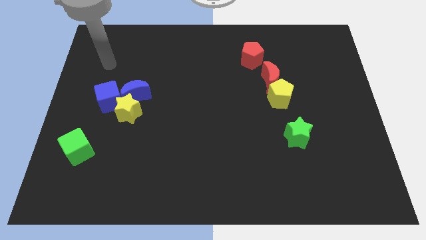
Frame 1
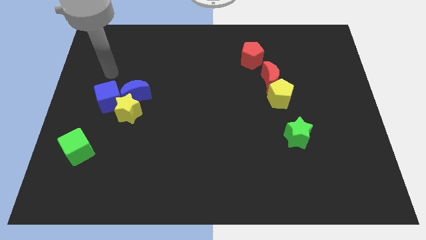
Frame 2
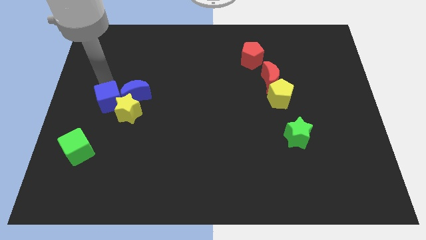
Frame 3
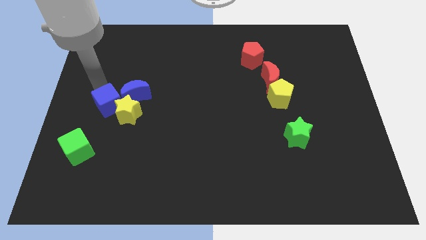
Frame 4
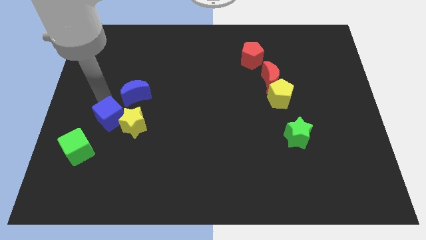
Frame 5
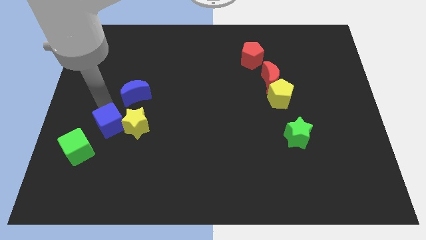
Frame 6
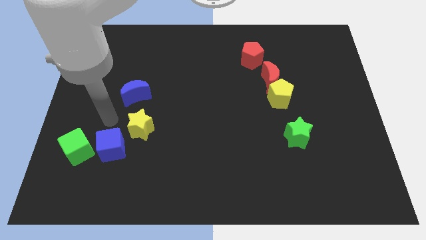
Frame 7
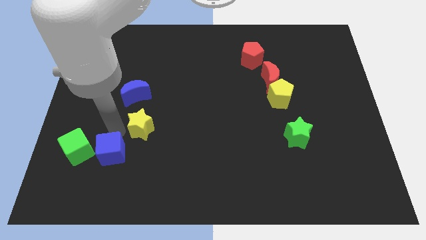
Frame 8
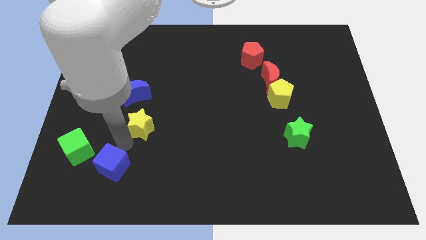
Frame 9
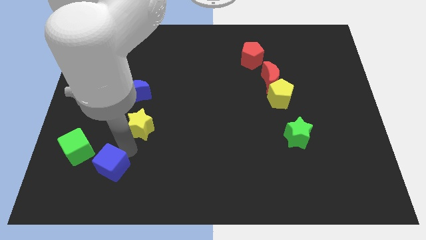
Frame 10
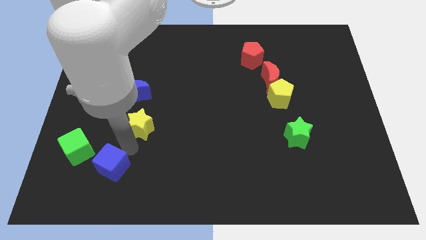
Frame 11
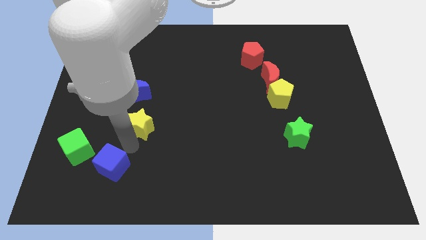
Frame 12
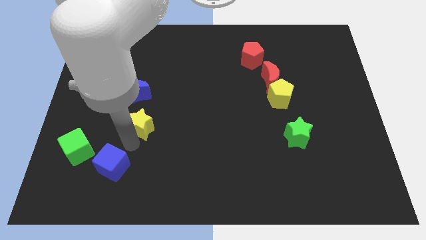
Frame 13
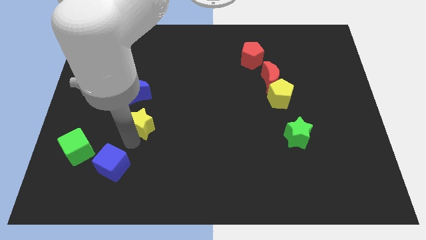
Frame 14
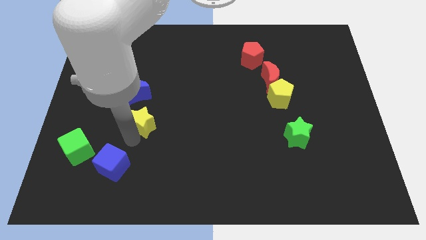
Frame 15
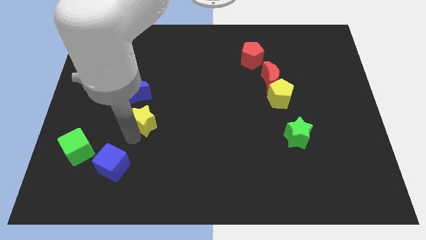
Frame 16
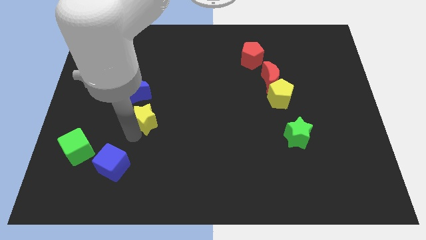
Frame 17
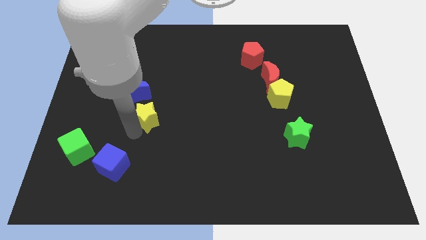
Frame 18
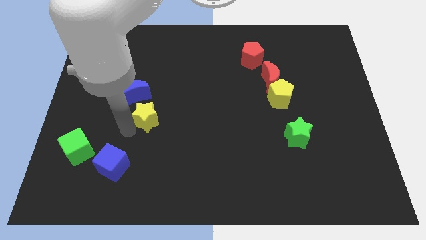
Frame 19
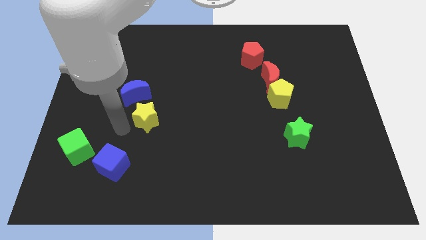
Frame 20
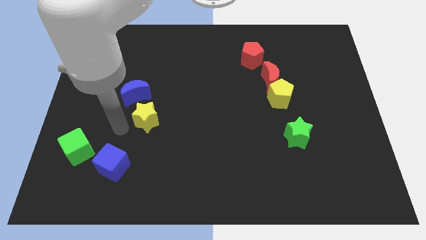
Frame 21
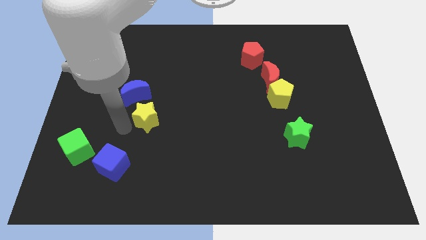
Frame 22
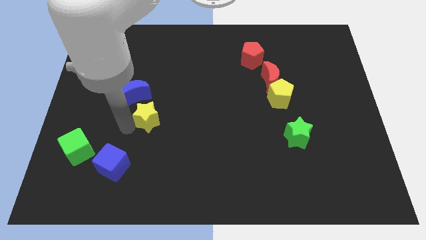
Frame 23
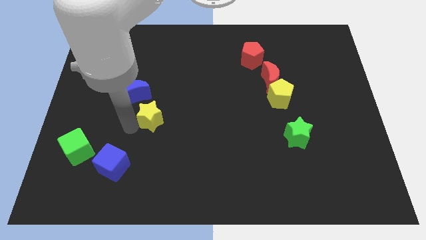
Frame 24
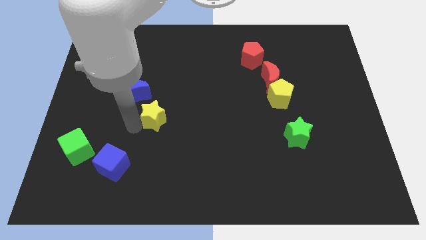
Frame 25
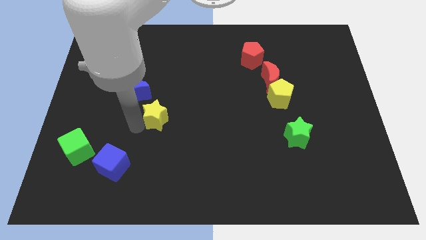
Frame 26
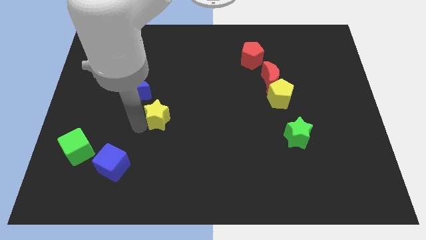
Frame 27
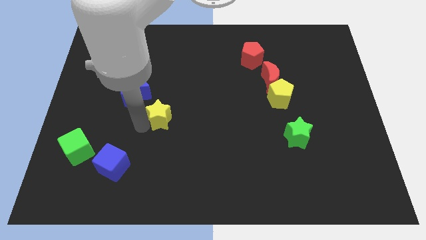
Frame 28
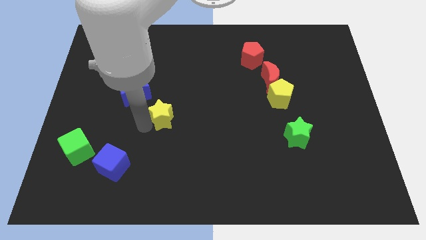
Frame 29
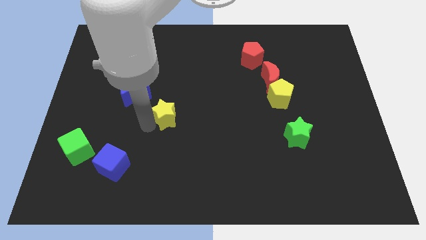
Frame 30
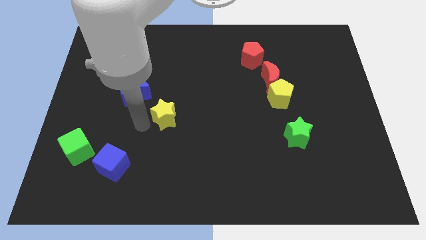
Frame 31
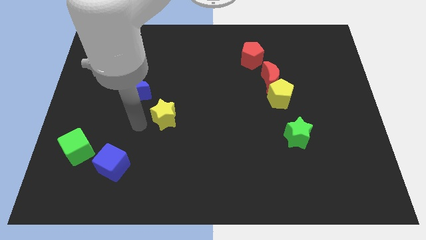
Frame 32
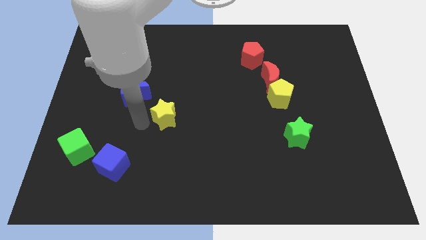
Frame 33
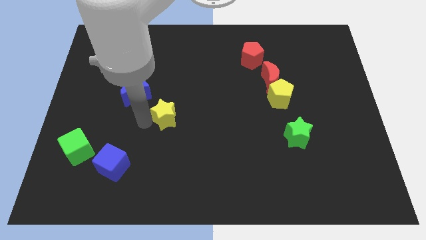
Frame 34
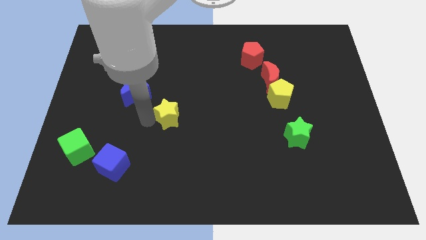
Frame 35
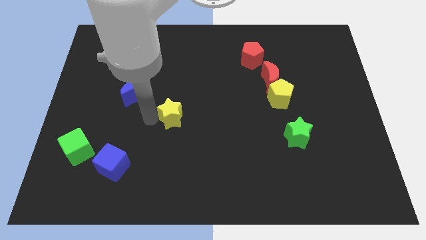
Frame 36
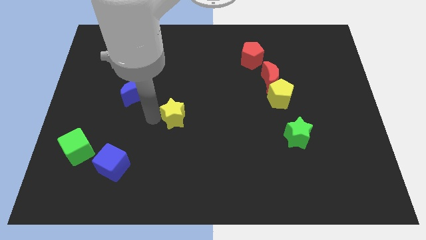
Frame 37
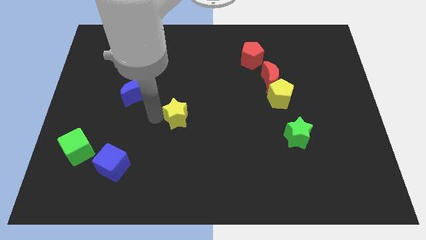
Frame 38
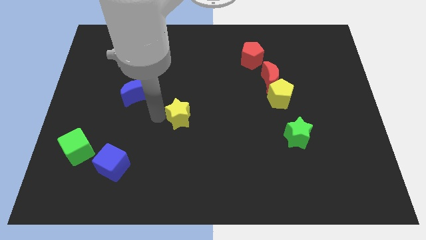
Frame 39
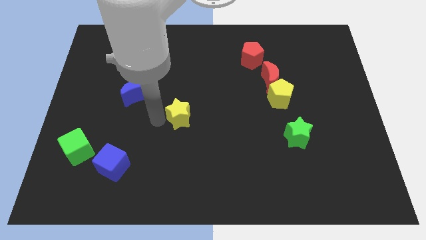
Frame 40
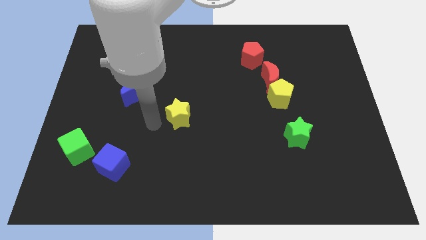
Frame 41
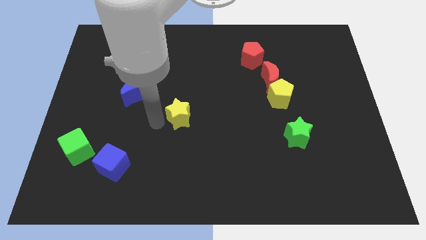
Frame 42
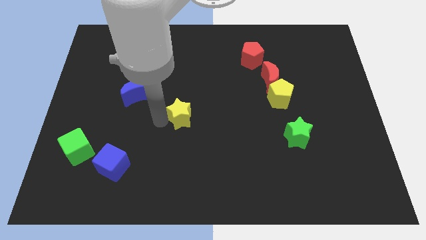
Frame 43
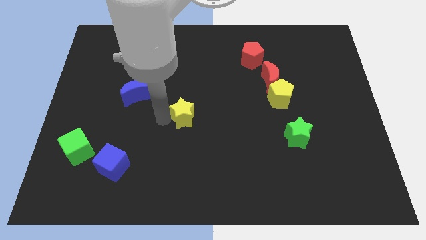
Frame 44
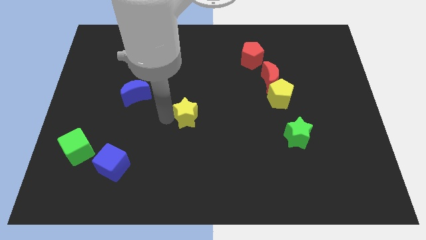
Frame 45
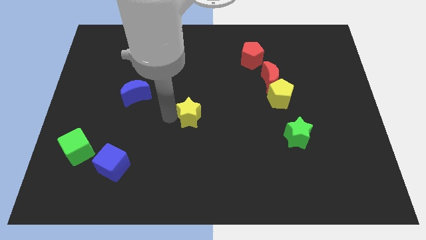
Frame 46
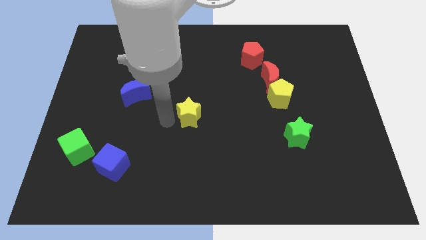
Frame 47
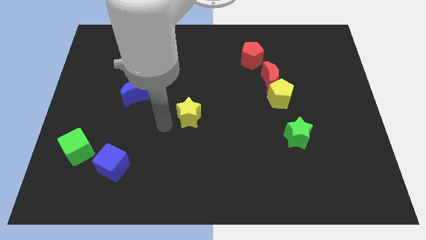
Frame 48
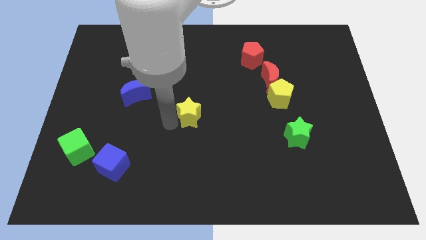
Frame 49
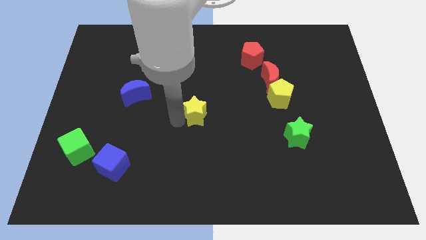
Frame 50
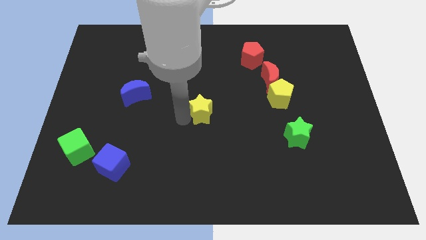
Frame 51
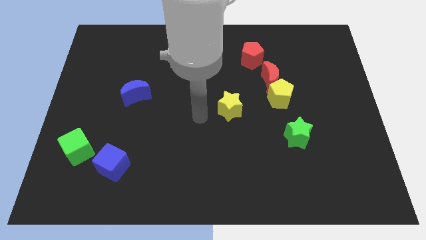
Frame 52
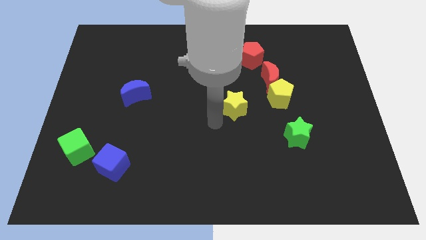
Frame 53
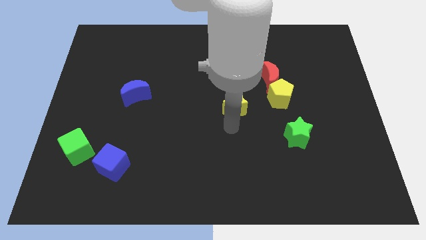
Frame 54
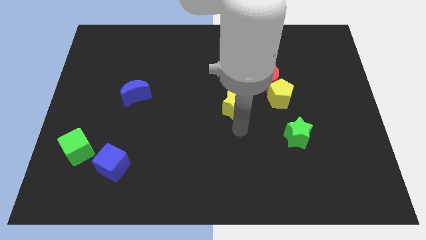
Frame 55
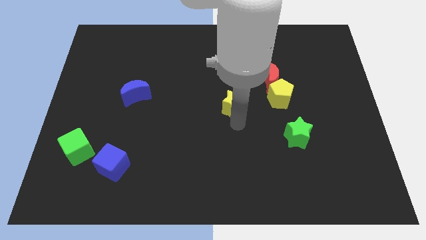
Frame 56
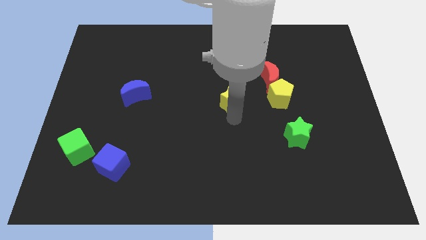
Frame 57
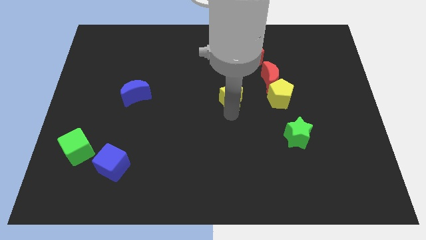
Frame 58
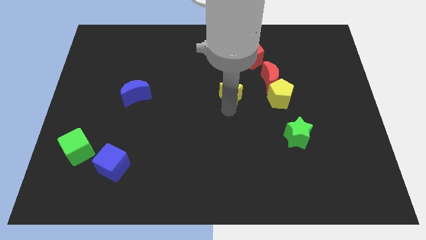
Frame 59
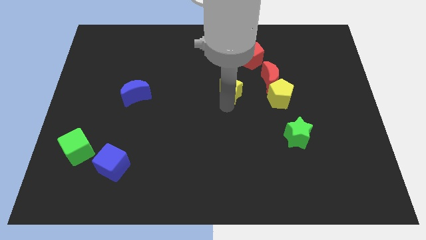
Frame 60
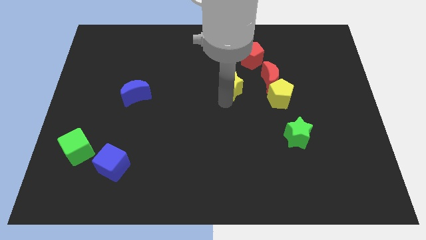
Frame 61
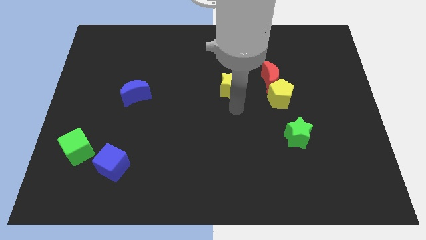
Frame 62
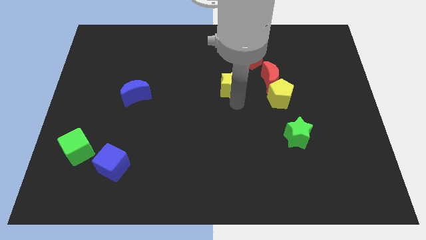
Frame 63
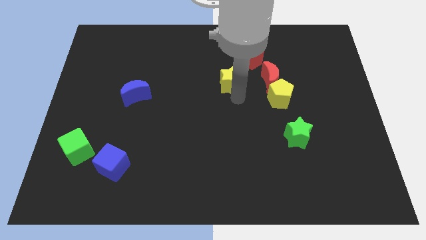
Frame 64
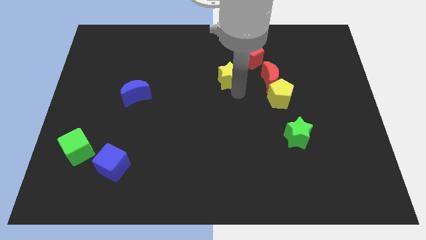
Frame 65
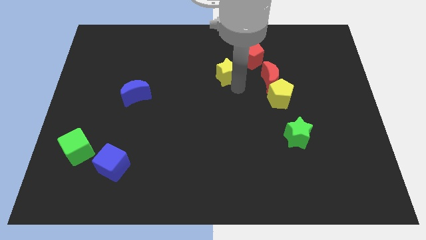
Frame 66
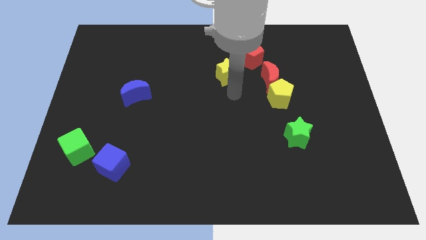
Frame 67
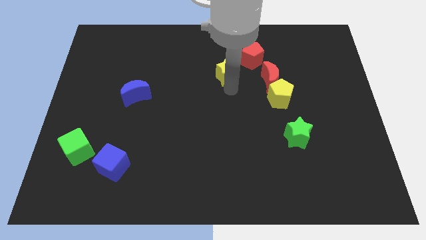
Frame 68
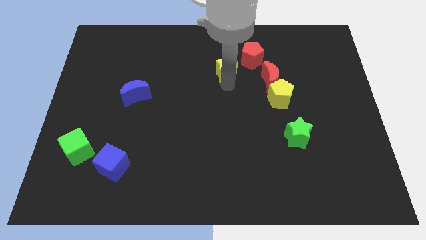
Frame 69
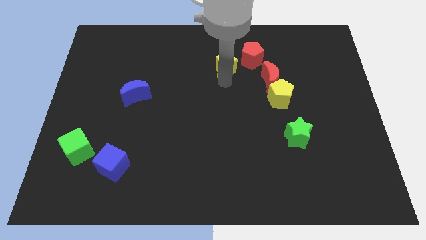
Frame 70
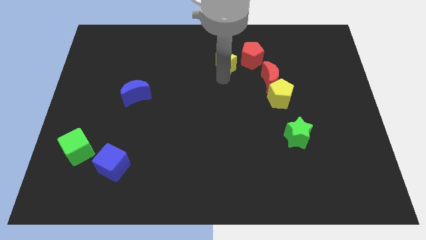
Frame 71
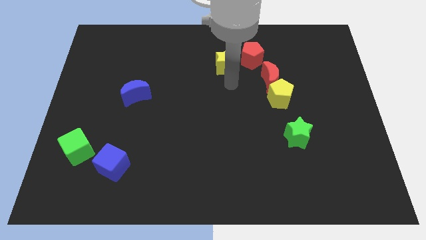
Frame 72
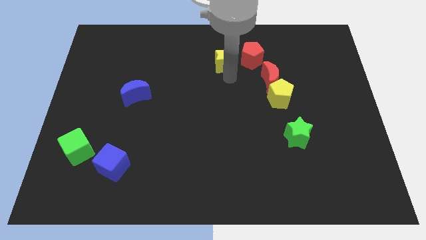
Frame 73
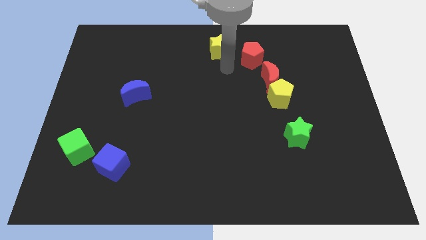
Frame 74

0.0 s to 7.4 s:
push the yellow star to the top side
